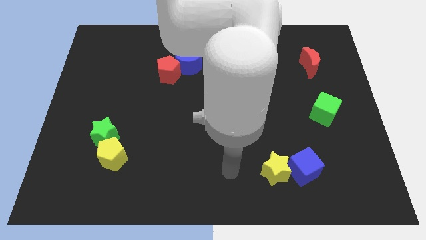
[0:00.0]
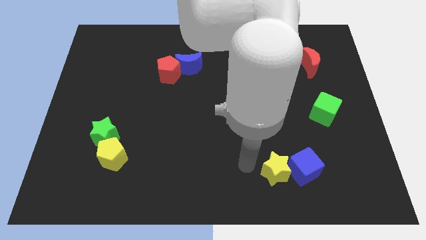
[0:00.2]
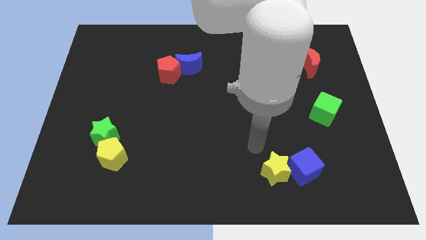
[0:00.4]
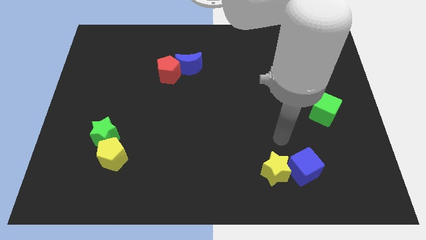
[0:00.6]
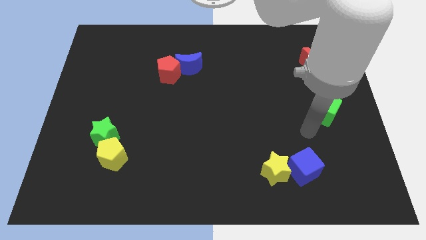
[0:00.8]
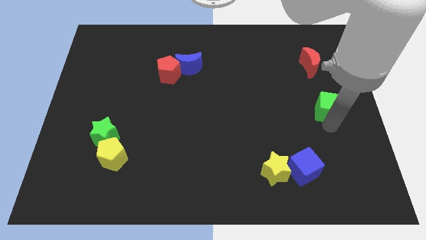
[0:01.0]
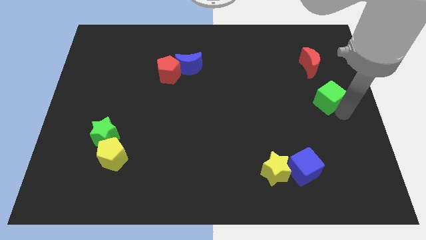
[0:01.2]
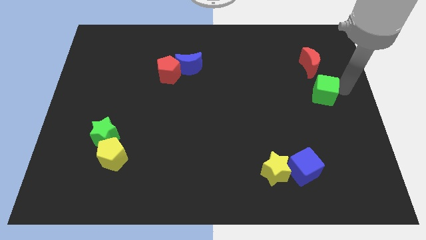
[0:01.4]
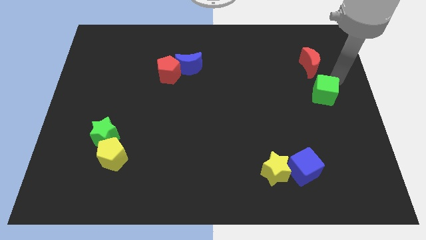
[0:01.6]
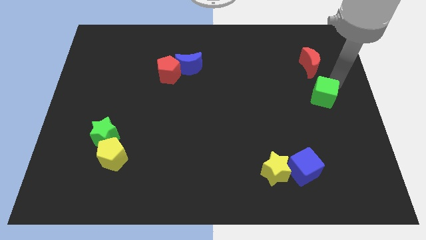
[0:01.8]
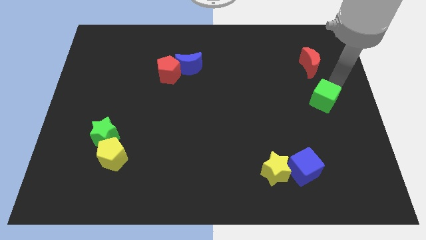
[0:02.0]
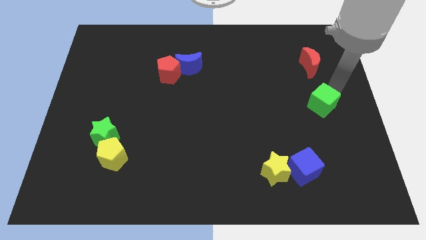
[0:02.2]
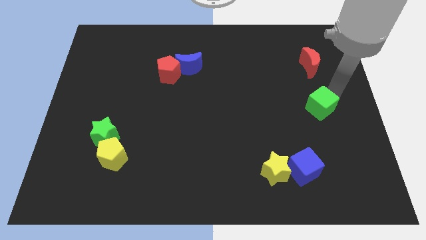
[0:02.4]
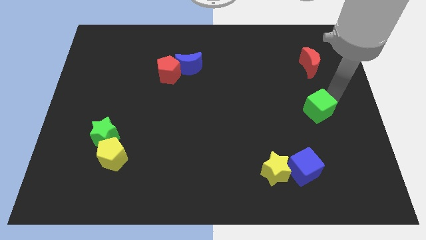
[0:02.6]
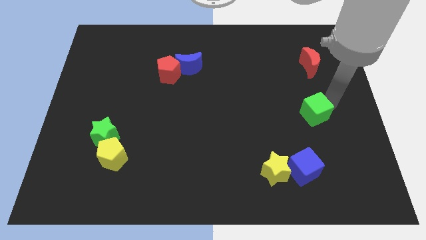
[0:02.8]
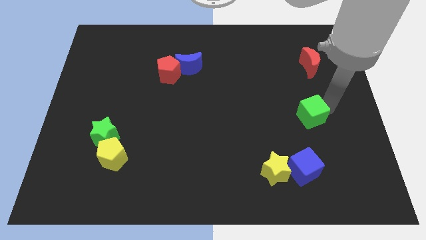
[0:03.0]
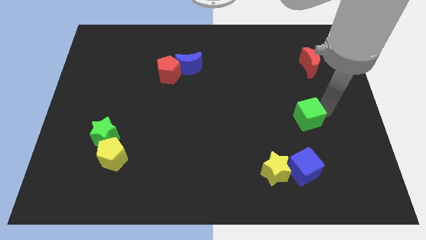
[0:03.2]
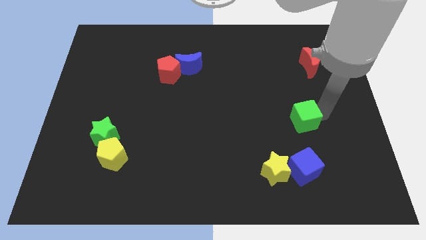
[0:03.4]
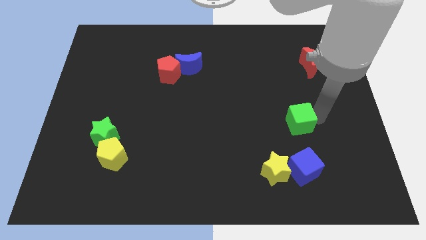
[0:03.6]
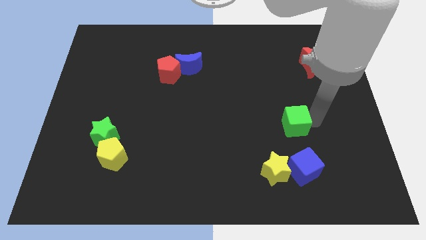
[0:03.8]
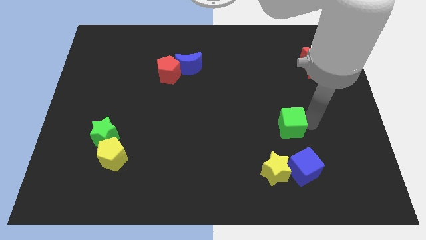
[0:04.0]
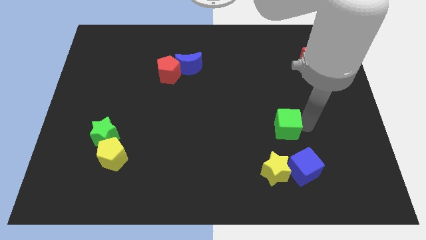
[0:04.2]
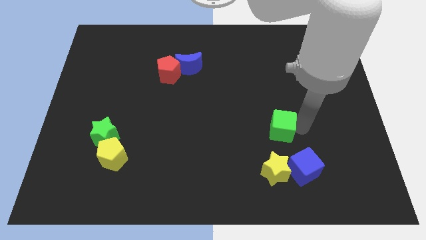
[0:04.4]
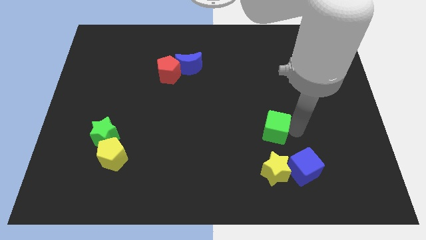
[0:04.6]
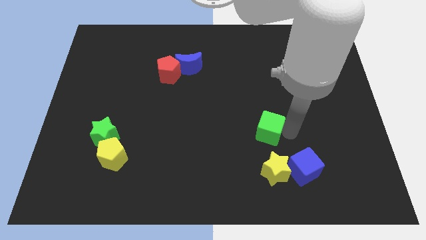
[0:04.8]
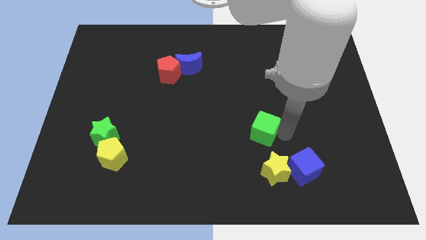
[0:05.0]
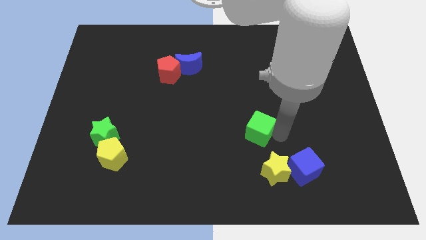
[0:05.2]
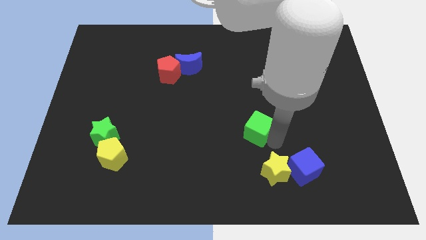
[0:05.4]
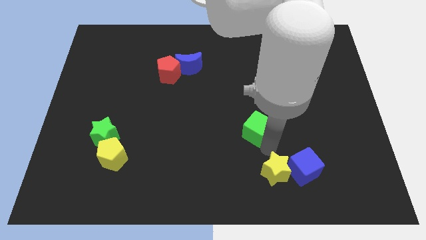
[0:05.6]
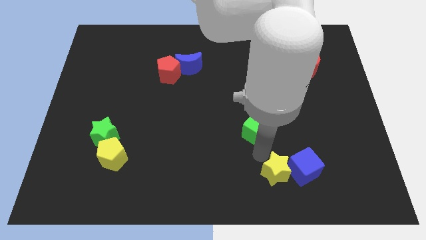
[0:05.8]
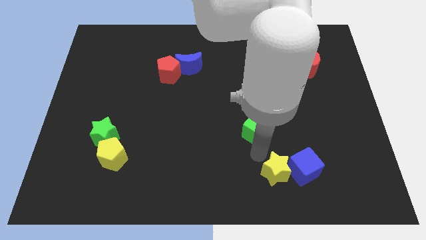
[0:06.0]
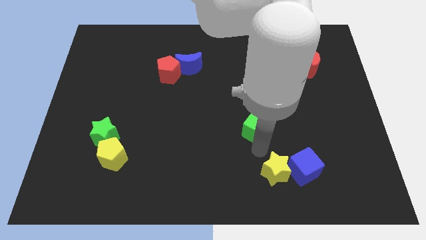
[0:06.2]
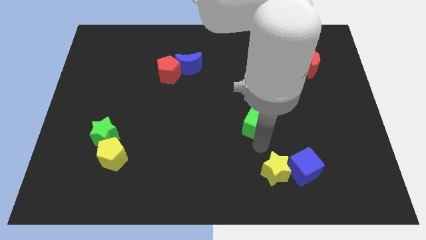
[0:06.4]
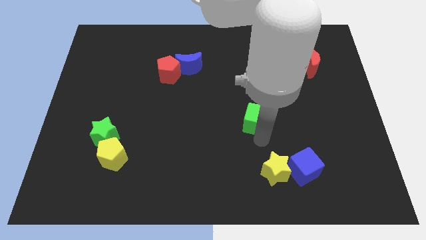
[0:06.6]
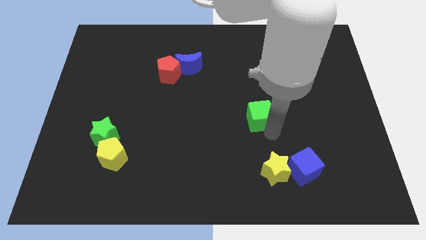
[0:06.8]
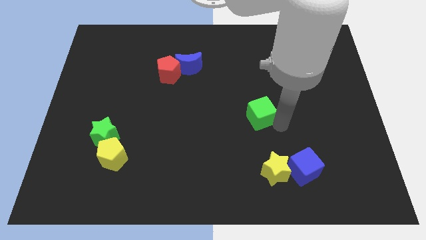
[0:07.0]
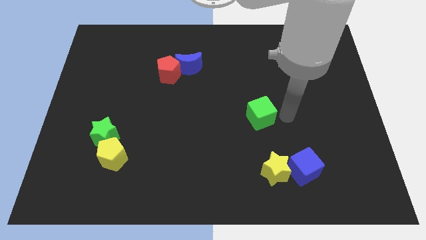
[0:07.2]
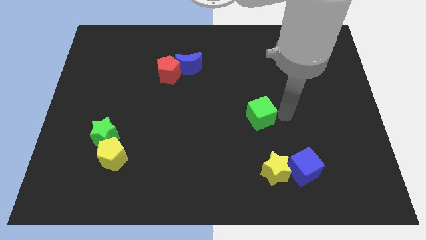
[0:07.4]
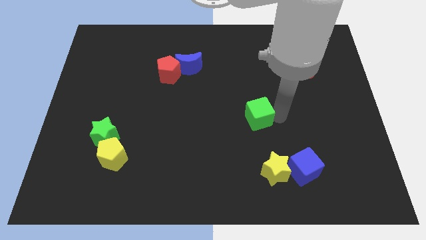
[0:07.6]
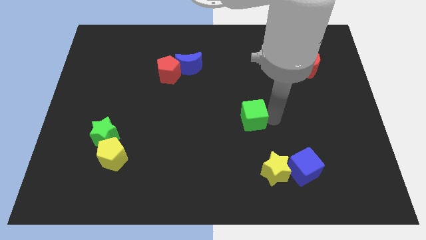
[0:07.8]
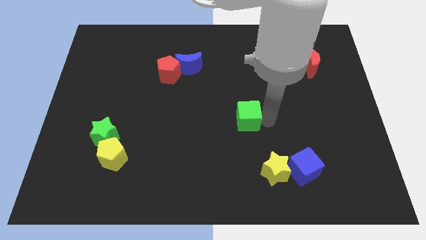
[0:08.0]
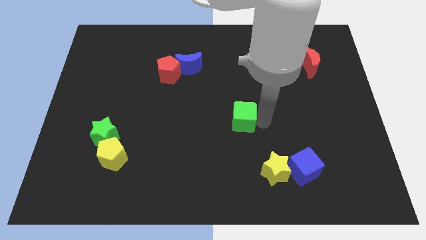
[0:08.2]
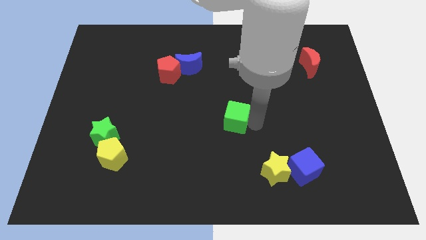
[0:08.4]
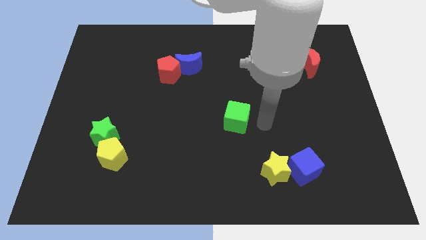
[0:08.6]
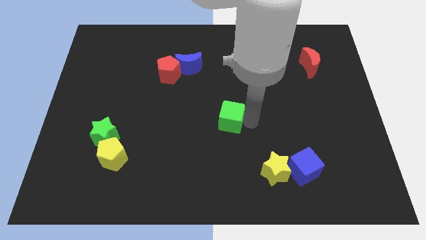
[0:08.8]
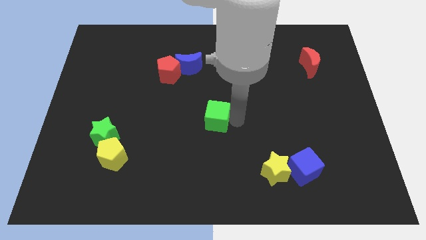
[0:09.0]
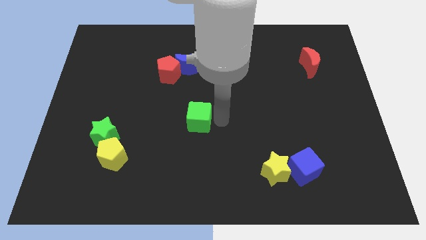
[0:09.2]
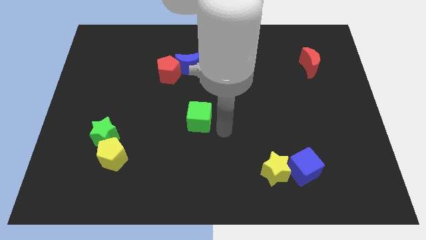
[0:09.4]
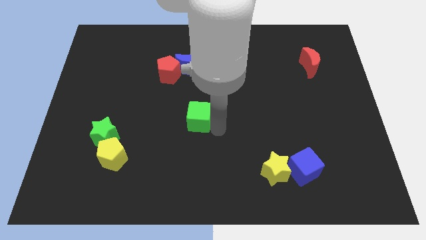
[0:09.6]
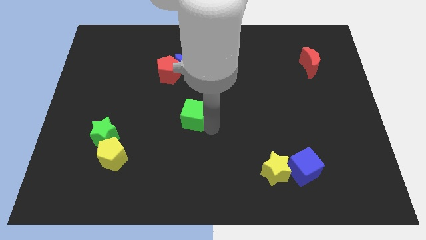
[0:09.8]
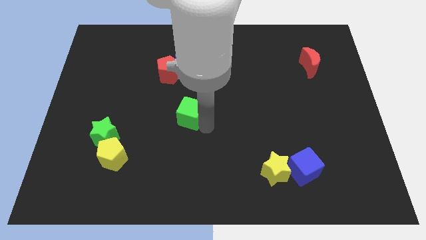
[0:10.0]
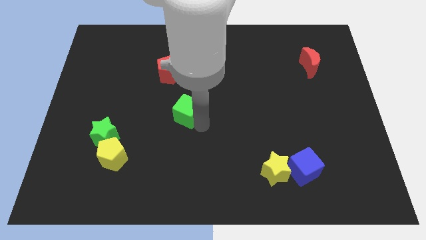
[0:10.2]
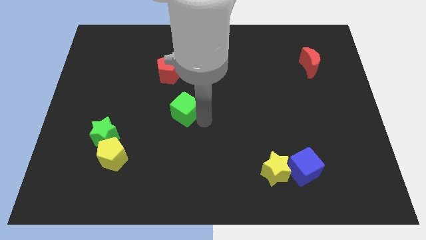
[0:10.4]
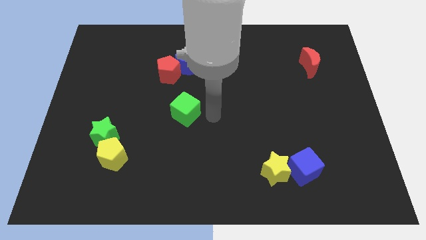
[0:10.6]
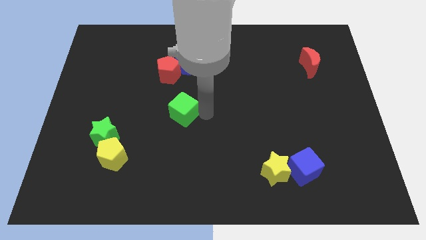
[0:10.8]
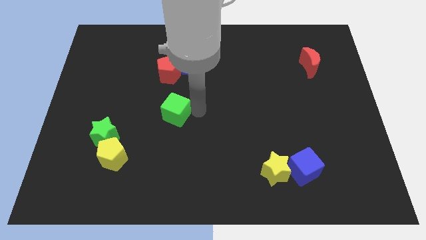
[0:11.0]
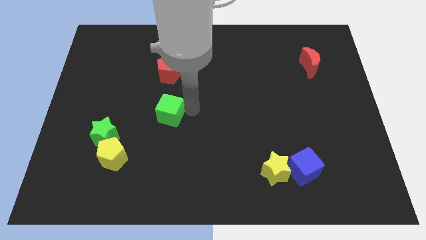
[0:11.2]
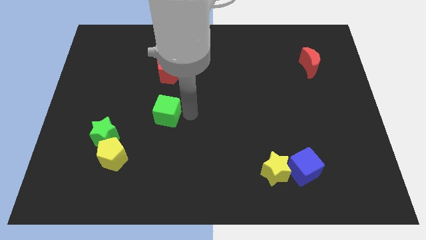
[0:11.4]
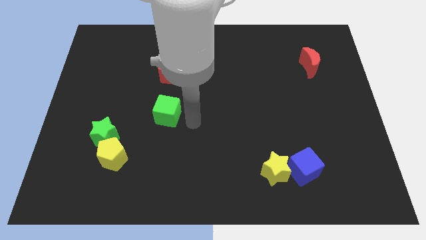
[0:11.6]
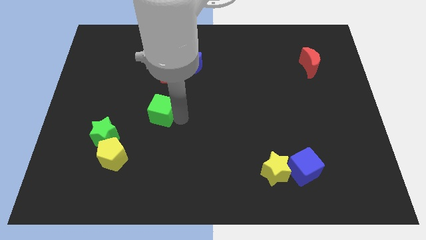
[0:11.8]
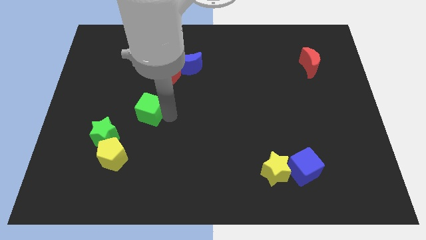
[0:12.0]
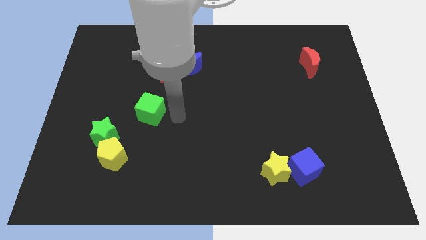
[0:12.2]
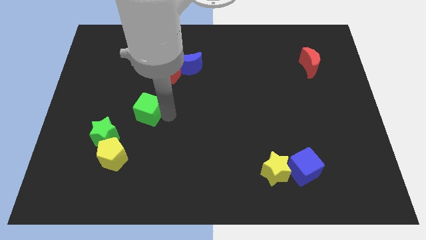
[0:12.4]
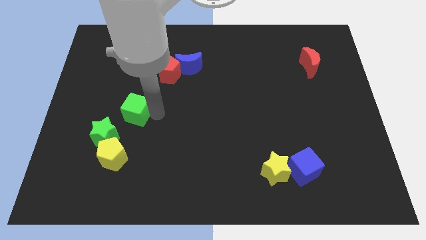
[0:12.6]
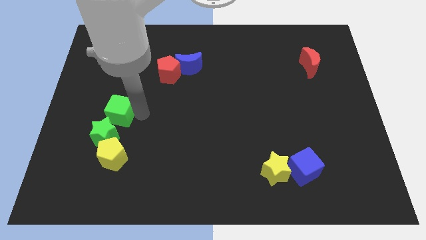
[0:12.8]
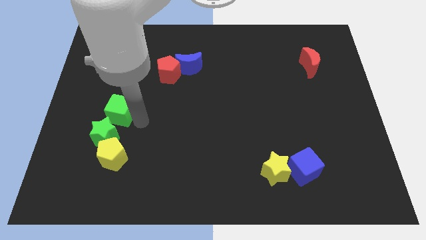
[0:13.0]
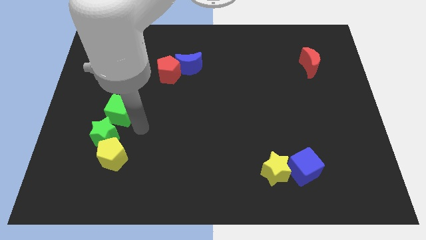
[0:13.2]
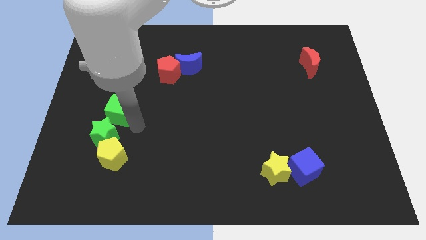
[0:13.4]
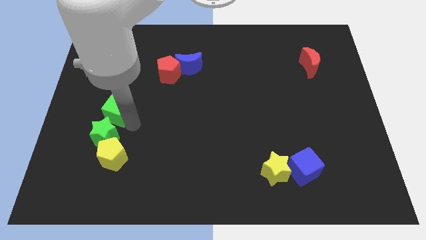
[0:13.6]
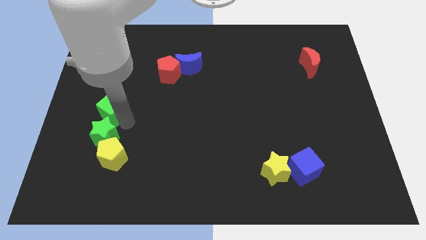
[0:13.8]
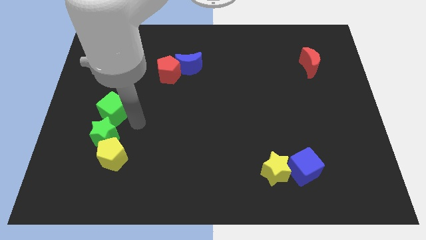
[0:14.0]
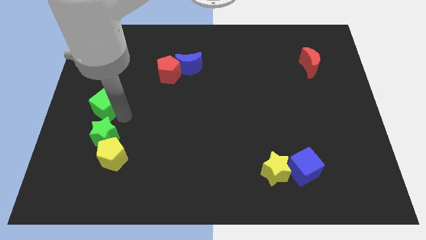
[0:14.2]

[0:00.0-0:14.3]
move the green cube to the left side of the board
